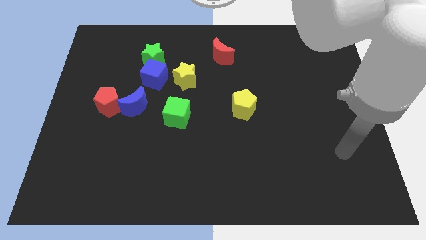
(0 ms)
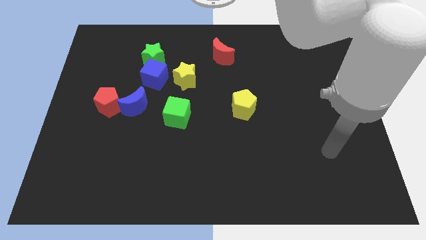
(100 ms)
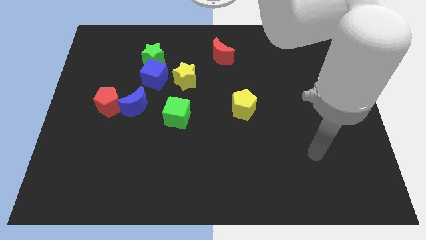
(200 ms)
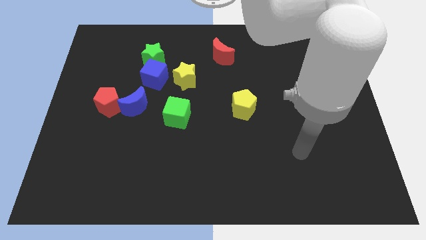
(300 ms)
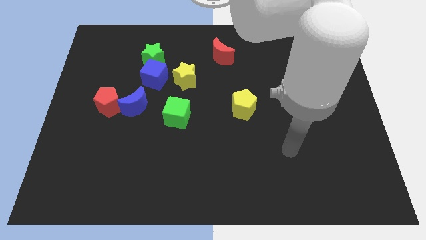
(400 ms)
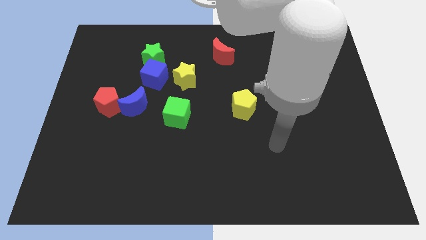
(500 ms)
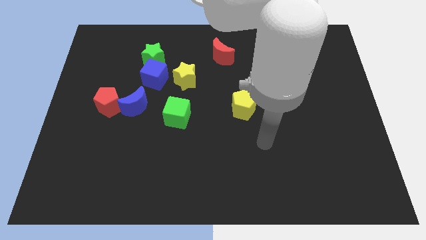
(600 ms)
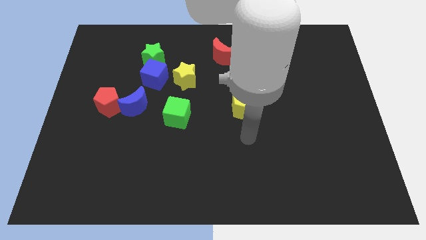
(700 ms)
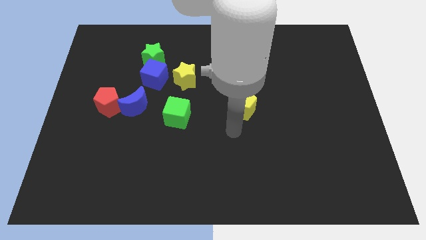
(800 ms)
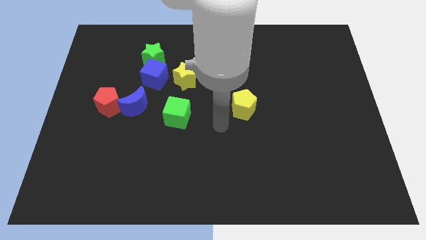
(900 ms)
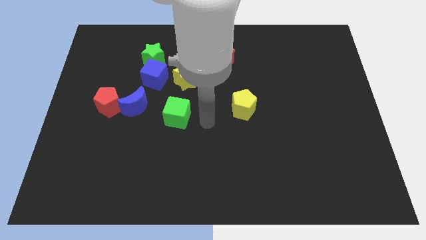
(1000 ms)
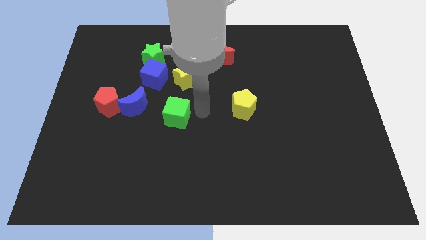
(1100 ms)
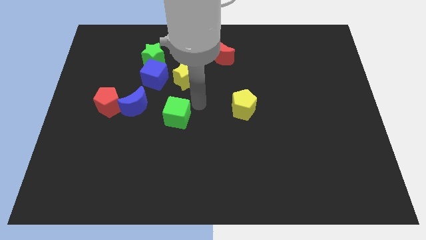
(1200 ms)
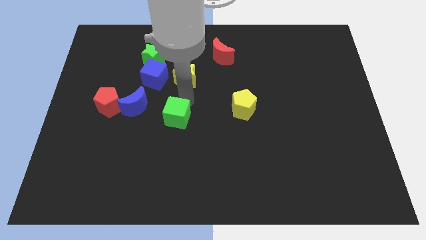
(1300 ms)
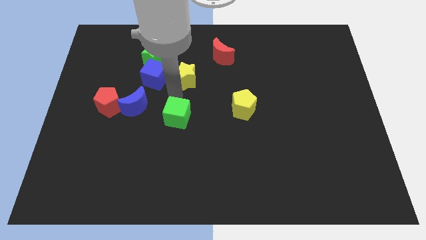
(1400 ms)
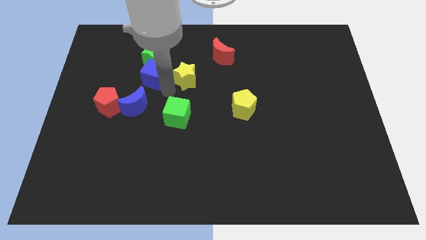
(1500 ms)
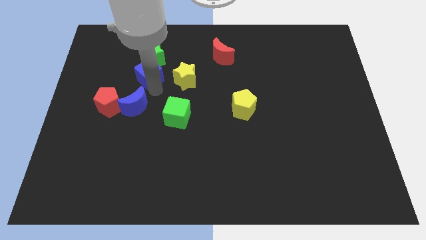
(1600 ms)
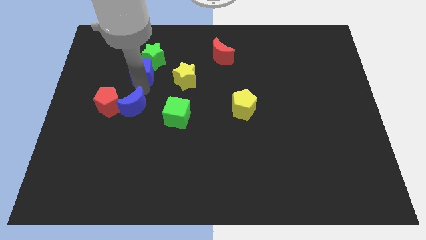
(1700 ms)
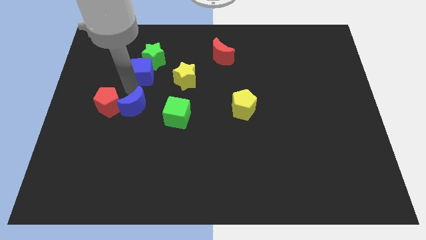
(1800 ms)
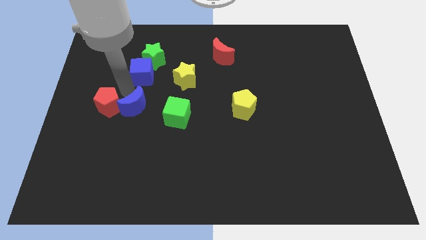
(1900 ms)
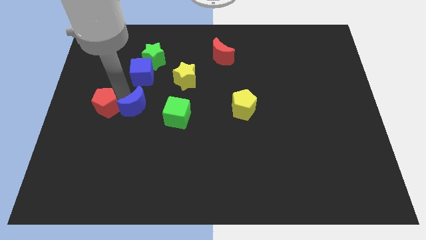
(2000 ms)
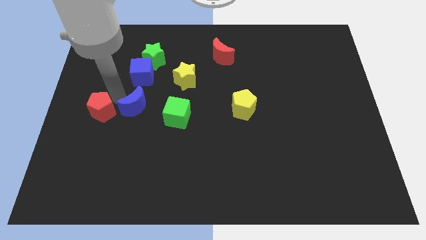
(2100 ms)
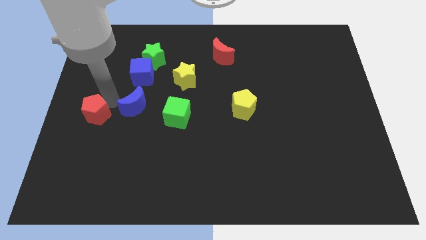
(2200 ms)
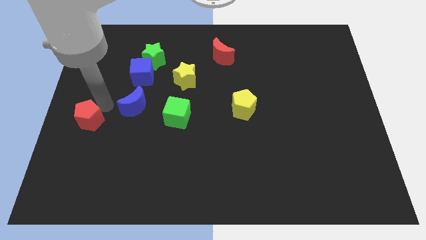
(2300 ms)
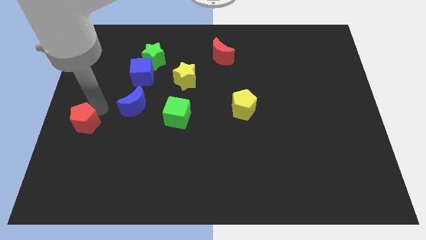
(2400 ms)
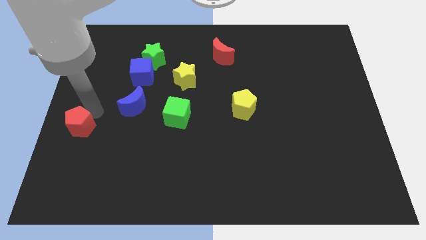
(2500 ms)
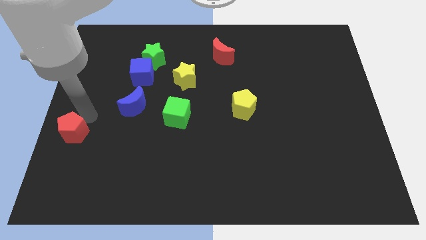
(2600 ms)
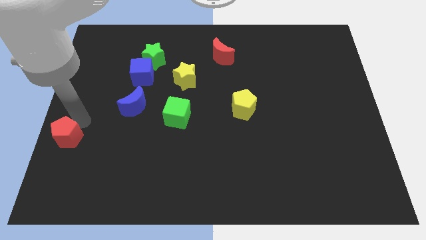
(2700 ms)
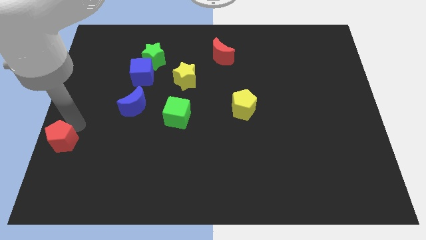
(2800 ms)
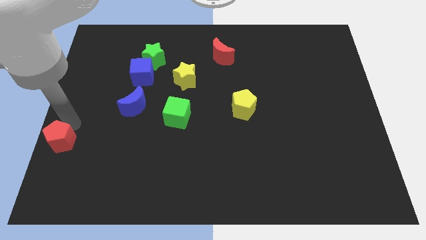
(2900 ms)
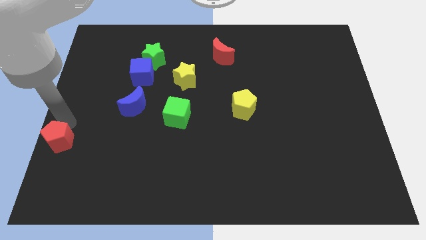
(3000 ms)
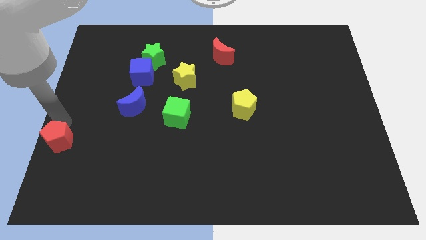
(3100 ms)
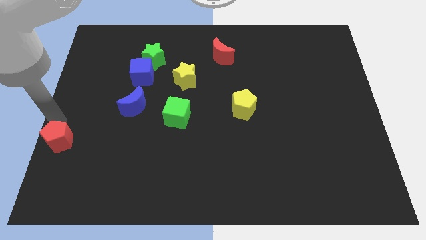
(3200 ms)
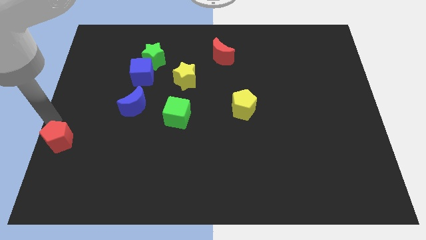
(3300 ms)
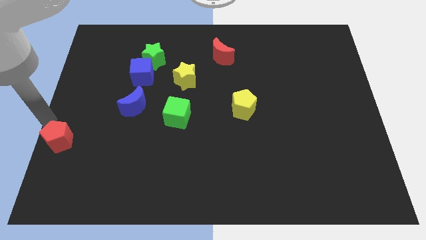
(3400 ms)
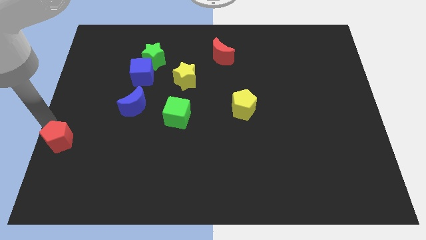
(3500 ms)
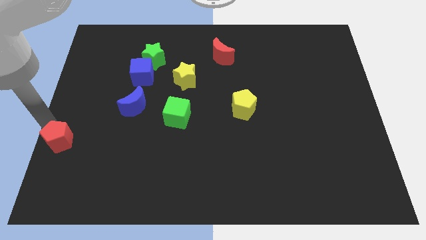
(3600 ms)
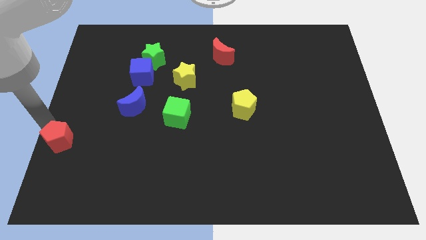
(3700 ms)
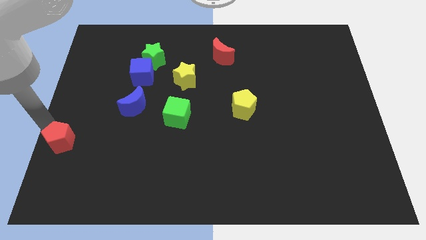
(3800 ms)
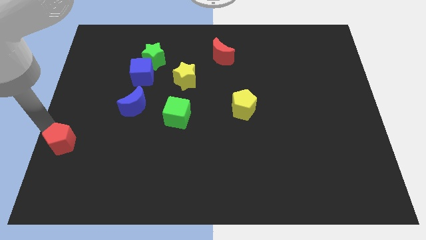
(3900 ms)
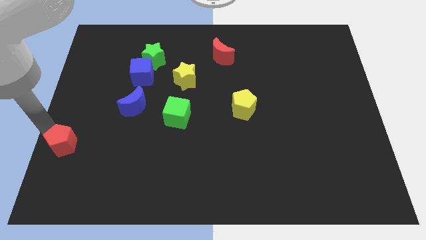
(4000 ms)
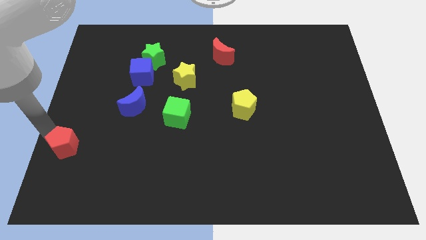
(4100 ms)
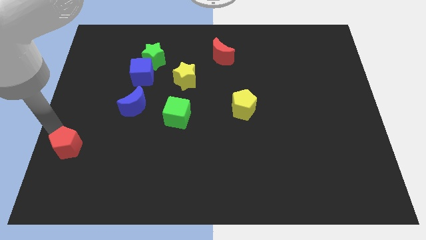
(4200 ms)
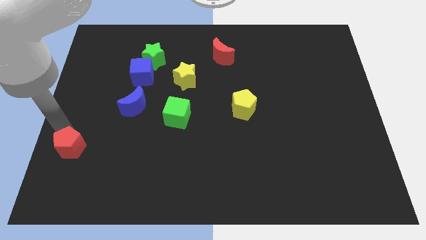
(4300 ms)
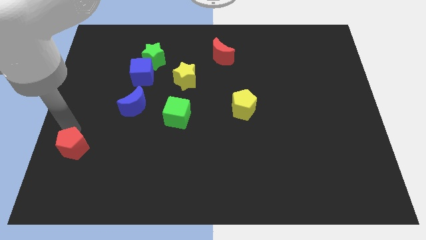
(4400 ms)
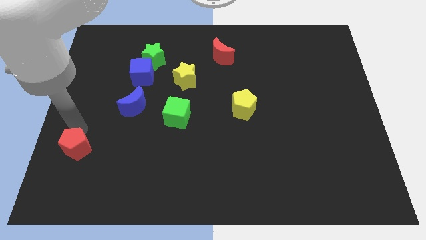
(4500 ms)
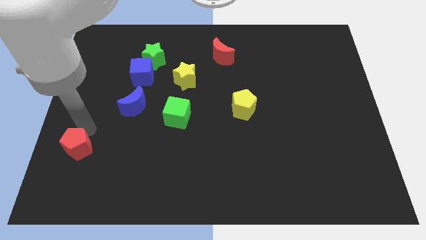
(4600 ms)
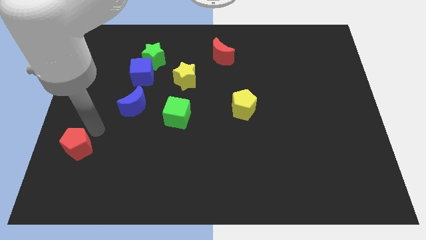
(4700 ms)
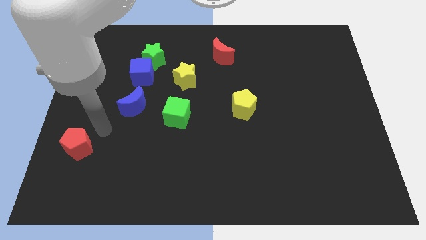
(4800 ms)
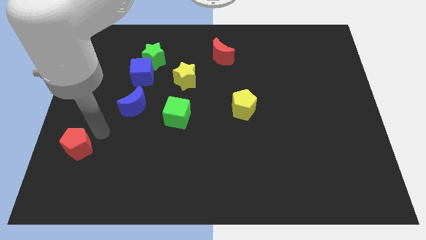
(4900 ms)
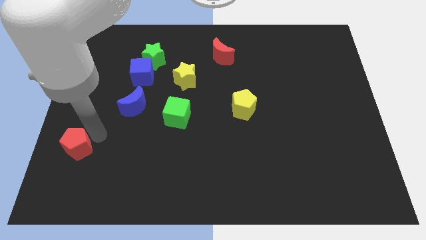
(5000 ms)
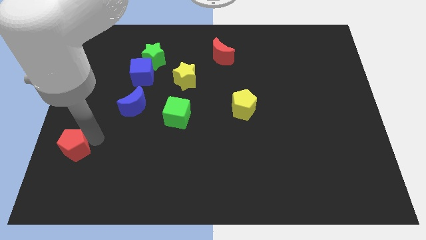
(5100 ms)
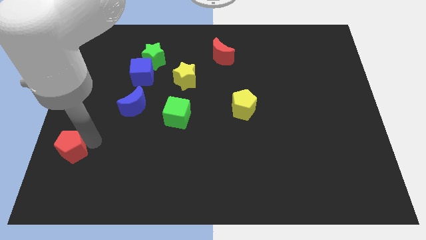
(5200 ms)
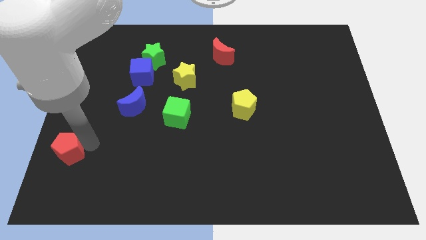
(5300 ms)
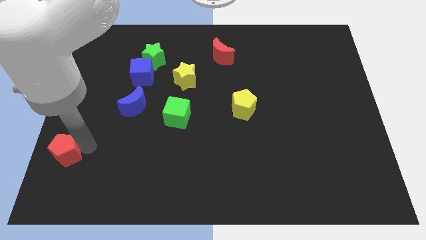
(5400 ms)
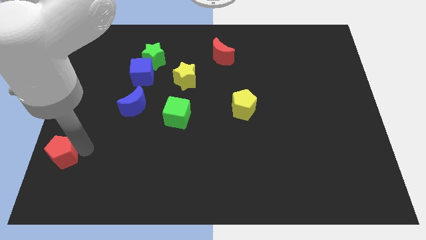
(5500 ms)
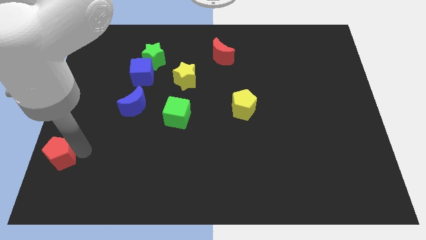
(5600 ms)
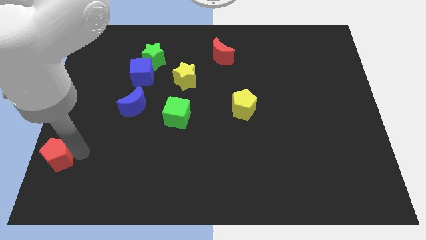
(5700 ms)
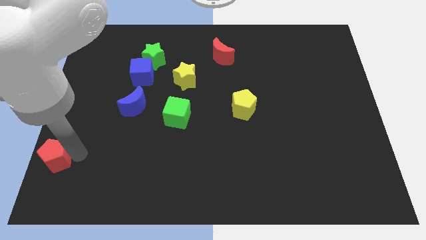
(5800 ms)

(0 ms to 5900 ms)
put the red pentagon to the bottom left
